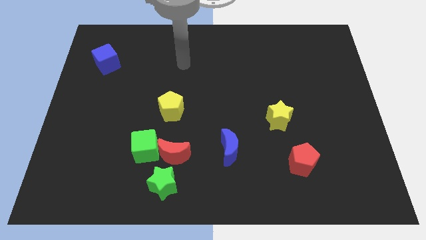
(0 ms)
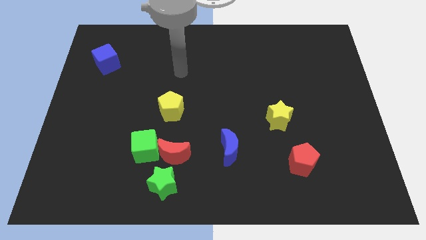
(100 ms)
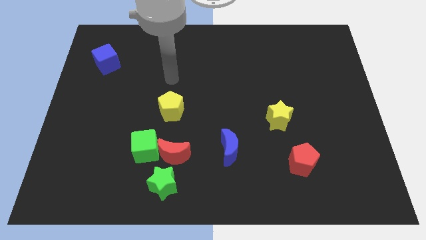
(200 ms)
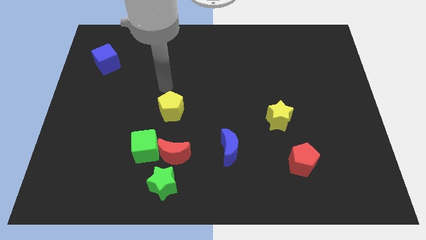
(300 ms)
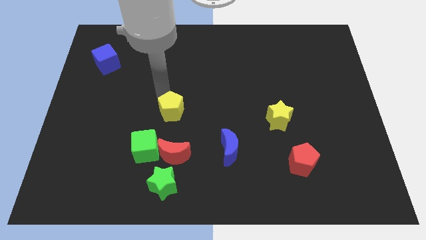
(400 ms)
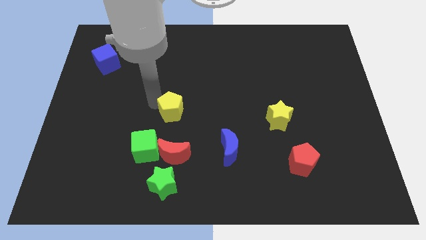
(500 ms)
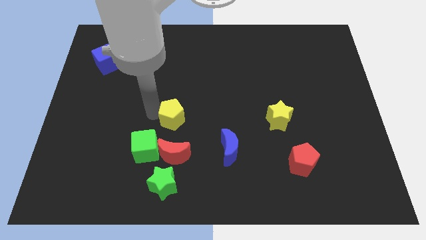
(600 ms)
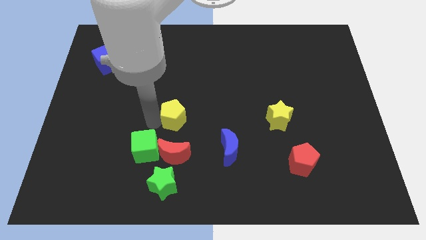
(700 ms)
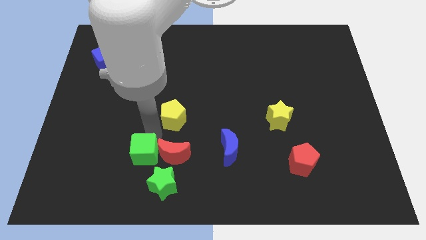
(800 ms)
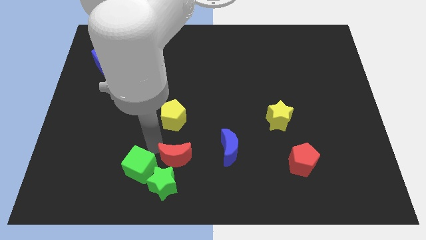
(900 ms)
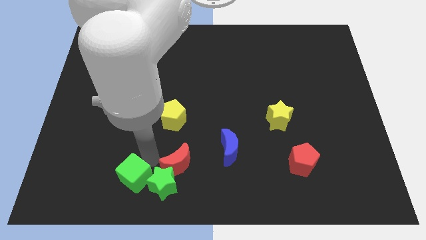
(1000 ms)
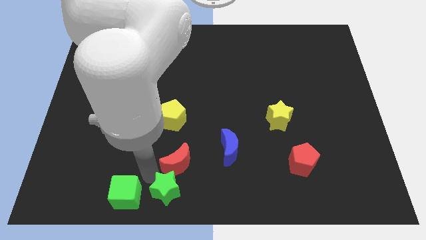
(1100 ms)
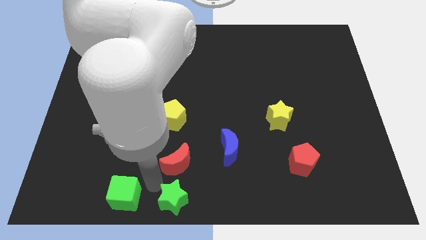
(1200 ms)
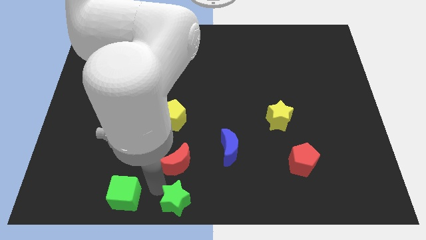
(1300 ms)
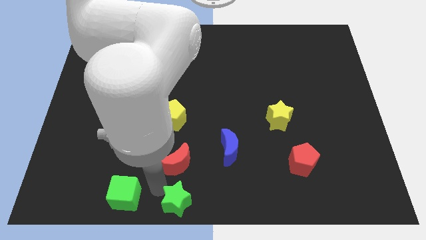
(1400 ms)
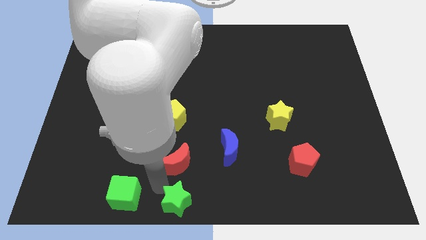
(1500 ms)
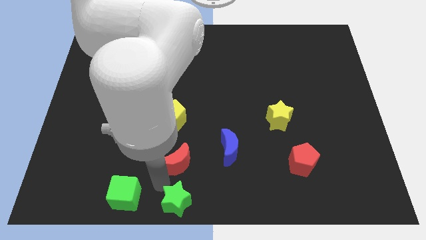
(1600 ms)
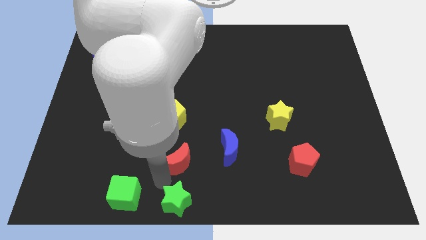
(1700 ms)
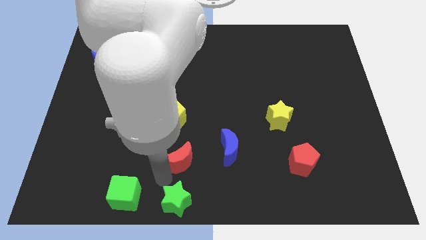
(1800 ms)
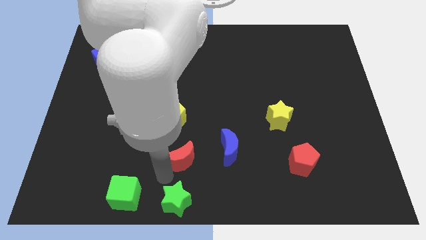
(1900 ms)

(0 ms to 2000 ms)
separate the red moon from the green cube and green star

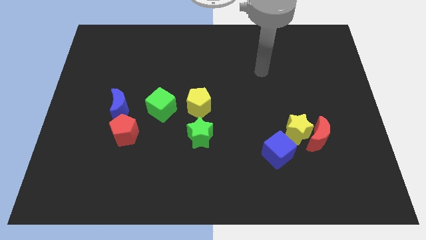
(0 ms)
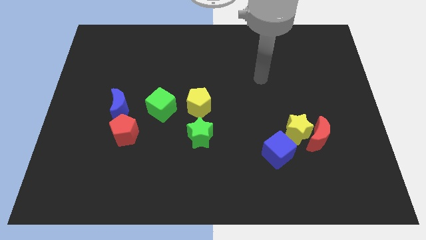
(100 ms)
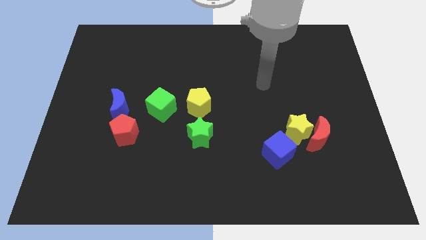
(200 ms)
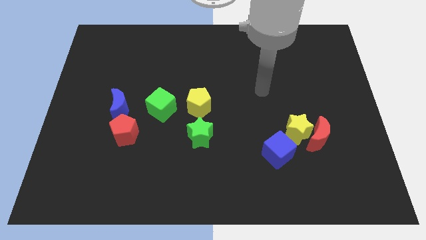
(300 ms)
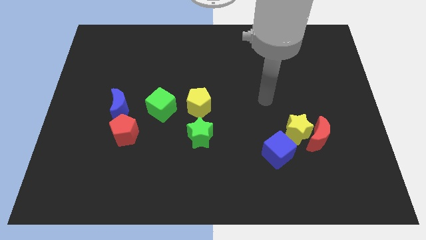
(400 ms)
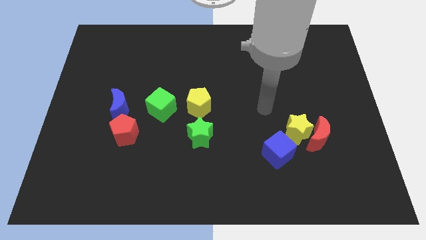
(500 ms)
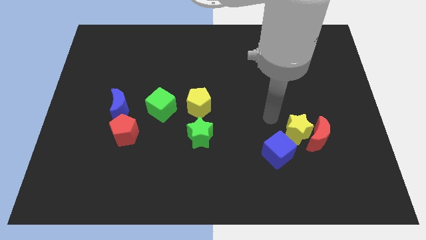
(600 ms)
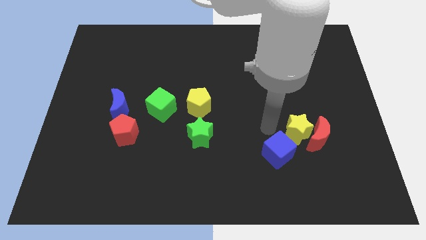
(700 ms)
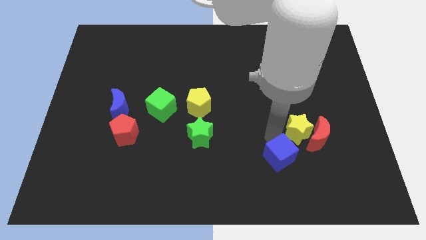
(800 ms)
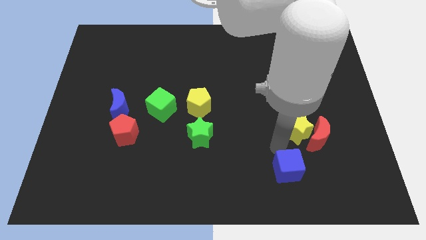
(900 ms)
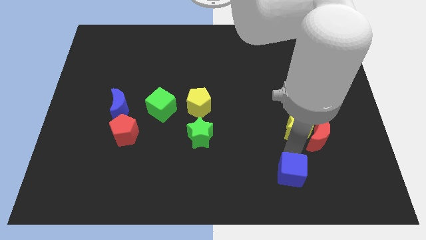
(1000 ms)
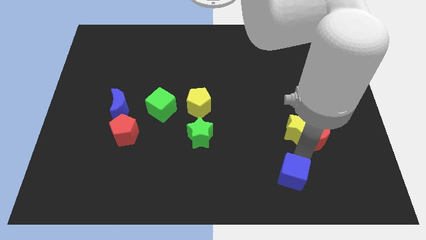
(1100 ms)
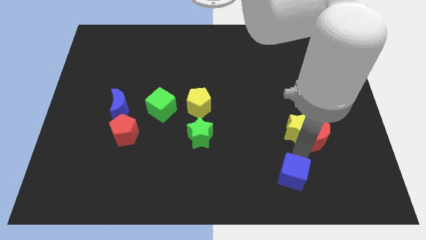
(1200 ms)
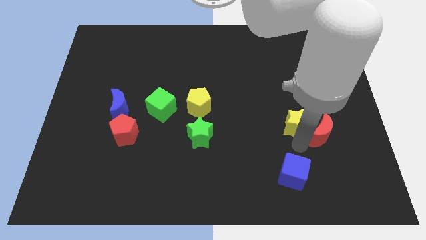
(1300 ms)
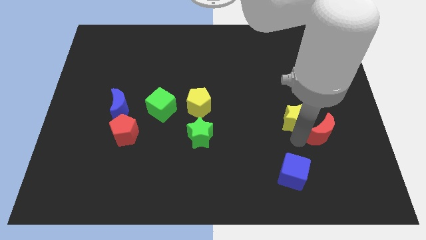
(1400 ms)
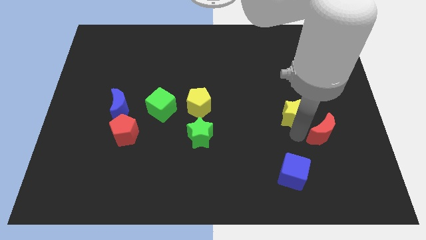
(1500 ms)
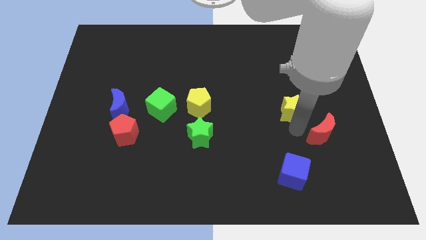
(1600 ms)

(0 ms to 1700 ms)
separate the yellow star from the red moon and blue cube

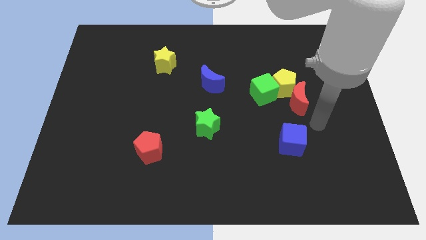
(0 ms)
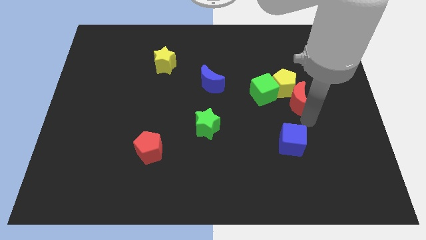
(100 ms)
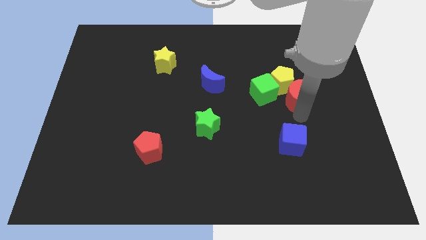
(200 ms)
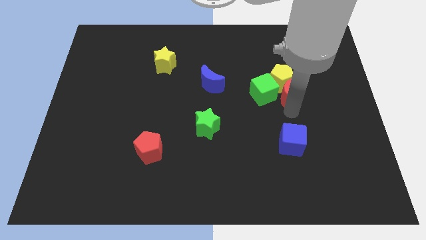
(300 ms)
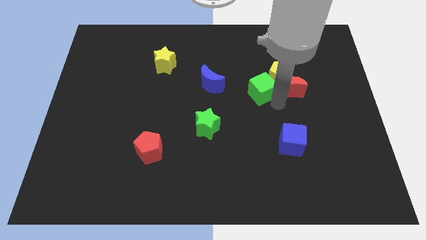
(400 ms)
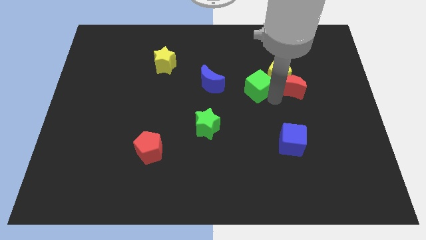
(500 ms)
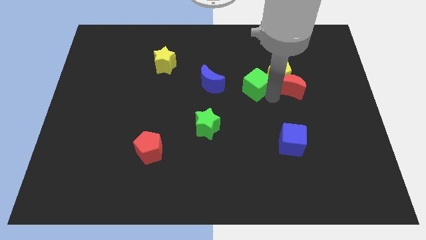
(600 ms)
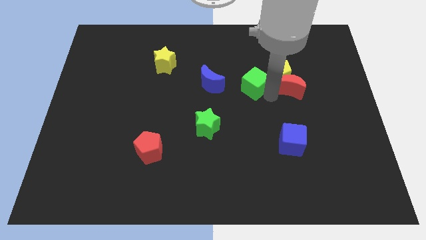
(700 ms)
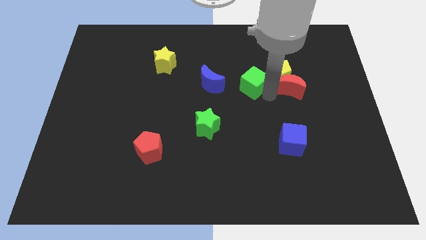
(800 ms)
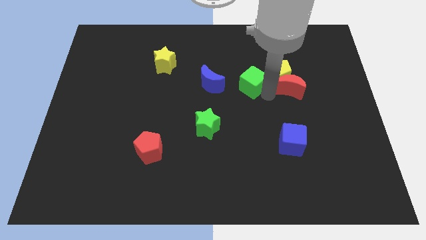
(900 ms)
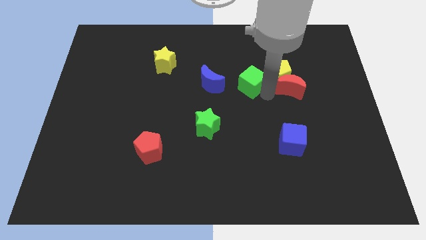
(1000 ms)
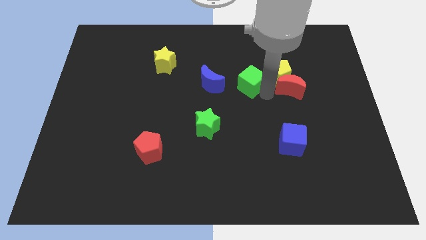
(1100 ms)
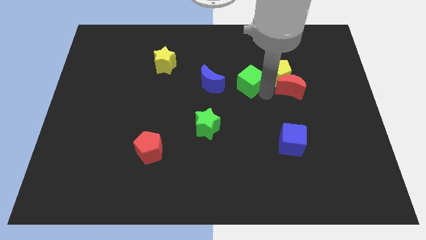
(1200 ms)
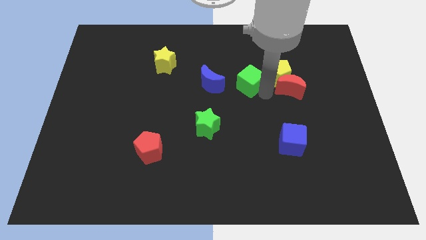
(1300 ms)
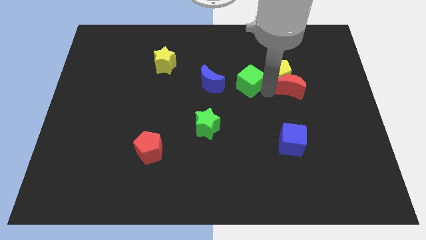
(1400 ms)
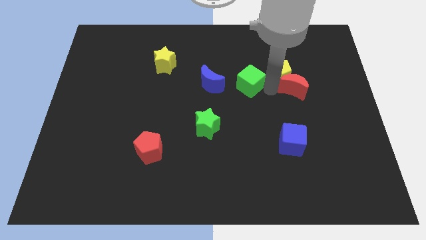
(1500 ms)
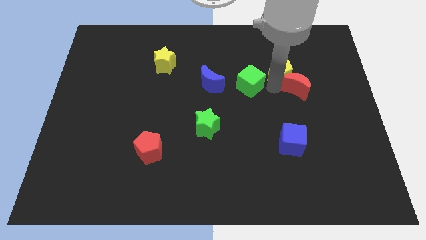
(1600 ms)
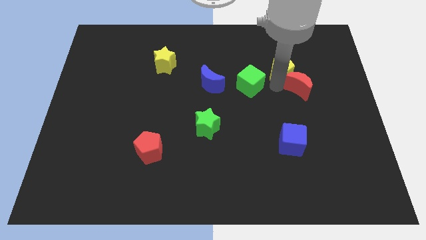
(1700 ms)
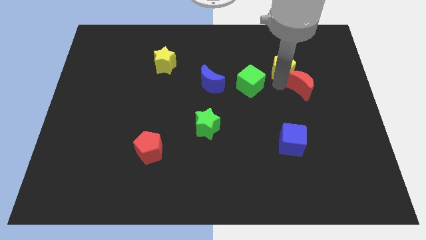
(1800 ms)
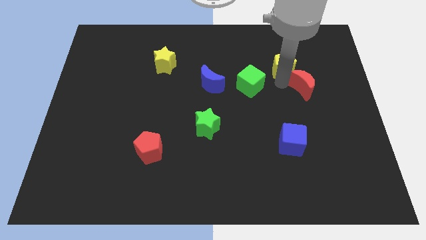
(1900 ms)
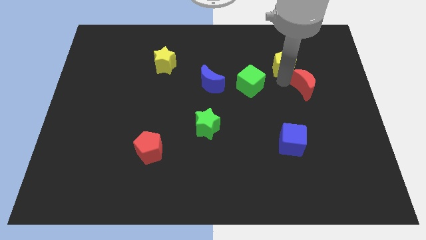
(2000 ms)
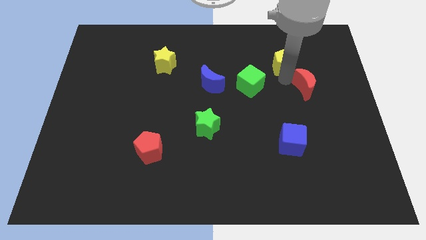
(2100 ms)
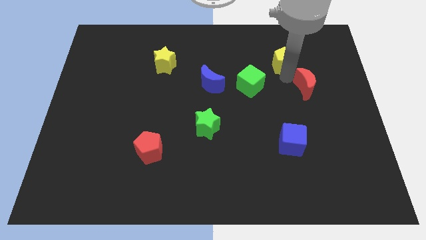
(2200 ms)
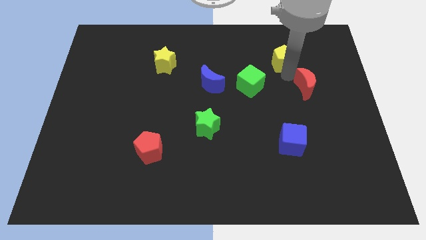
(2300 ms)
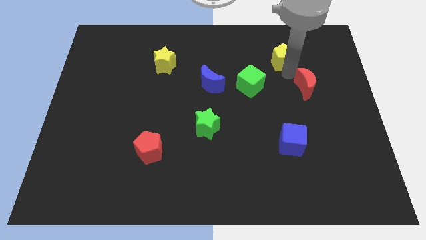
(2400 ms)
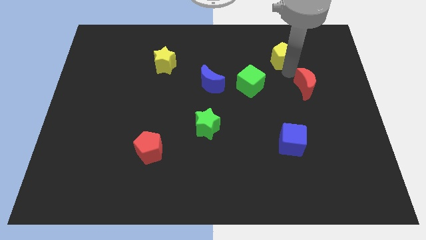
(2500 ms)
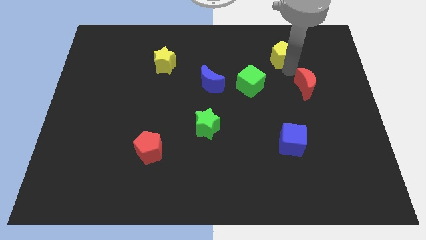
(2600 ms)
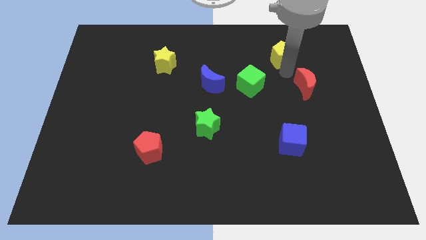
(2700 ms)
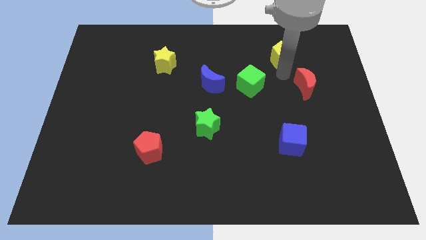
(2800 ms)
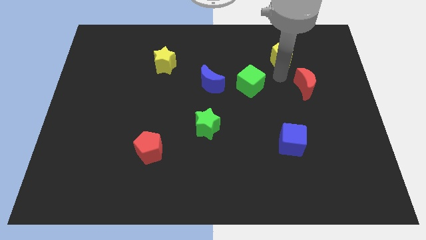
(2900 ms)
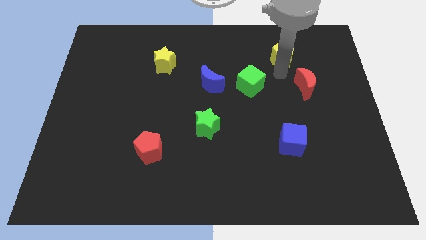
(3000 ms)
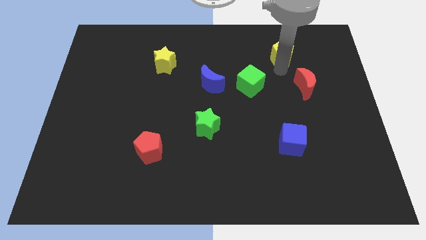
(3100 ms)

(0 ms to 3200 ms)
pull the yellow pentagon apart from the green cube and red moon

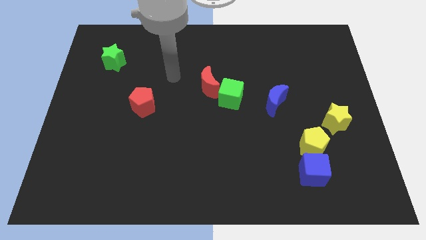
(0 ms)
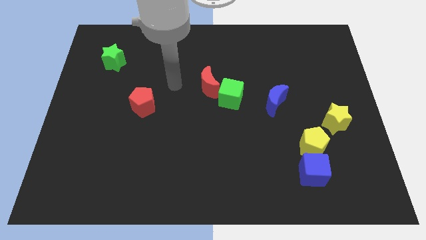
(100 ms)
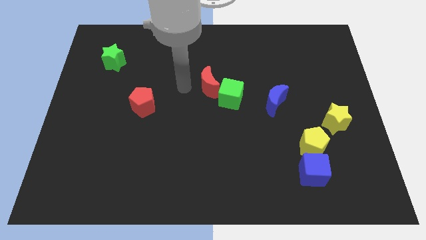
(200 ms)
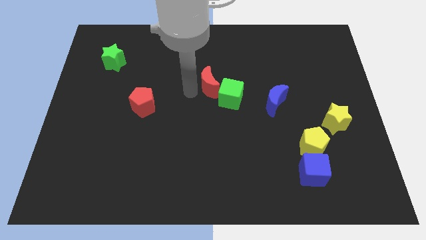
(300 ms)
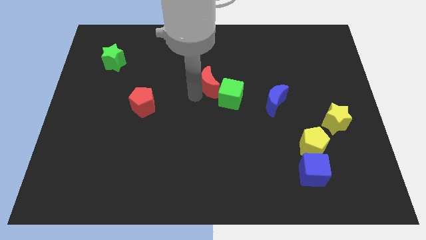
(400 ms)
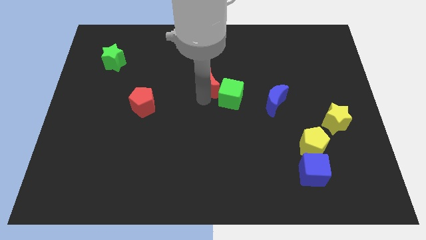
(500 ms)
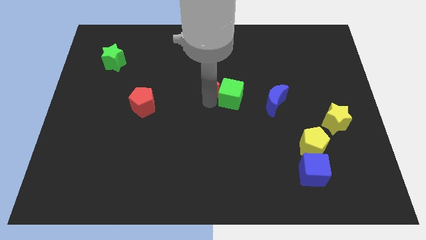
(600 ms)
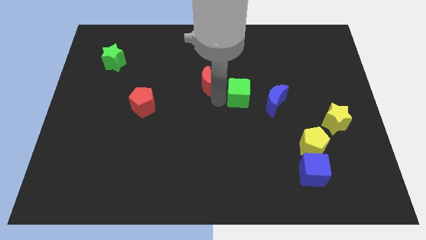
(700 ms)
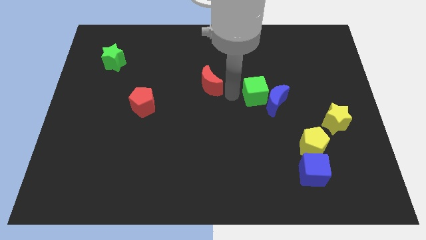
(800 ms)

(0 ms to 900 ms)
separate the red moon from the green cube

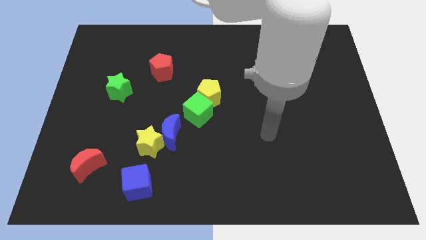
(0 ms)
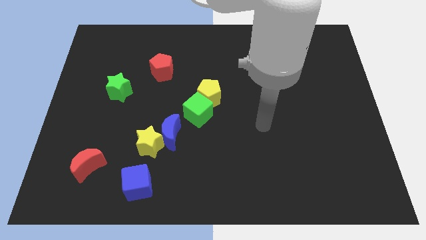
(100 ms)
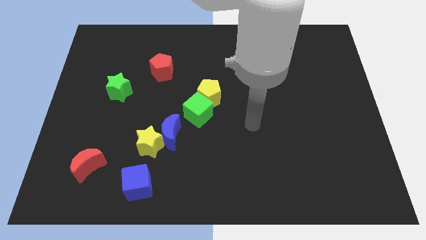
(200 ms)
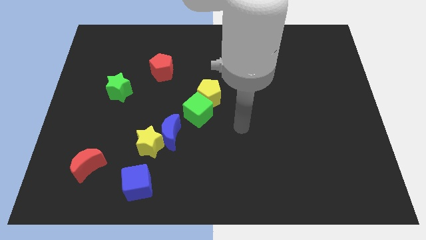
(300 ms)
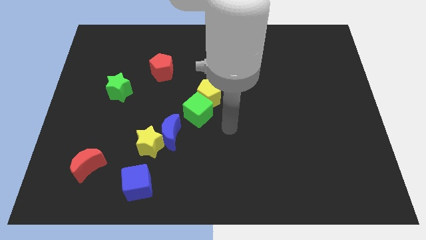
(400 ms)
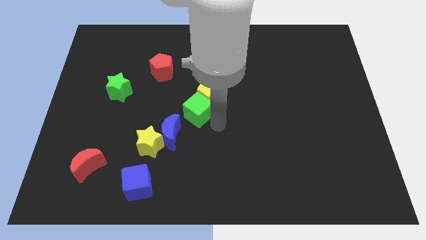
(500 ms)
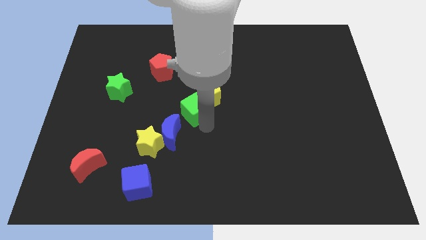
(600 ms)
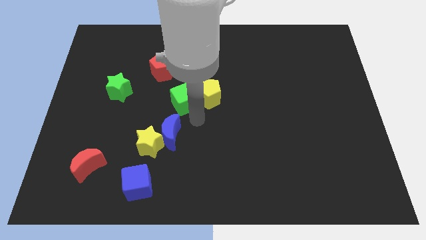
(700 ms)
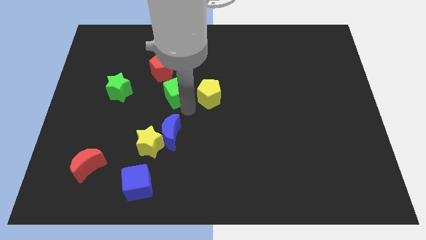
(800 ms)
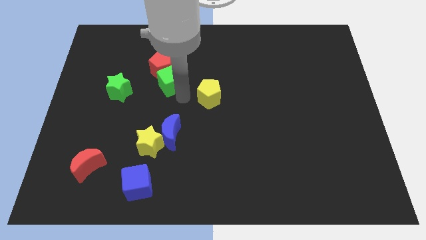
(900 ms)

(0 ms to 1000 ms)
pull the yellow pentagon apart from the green cube

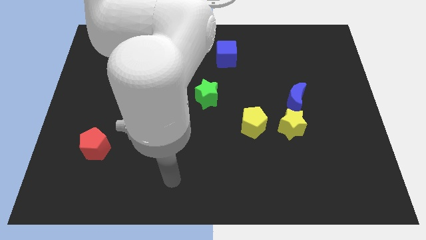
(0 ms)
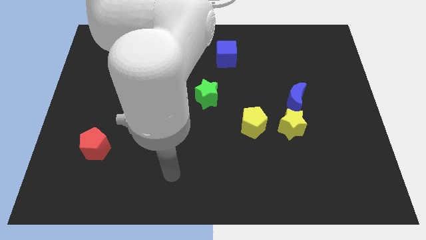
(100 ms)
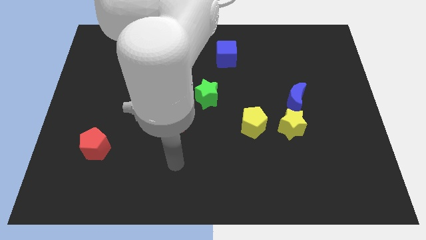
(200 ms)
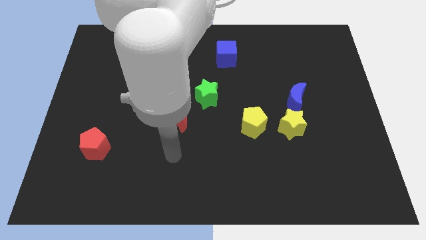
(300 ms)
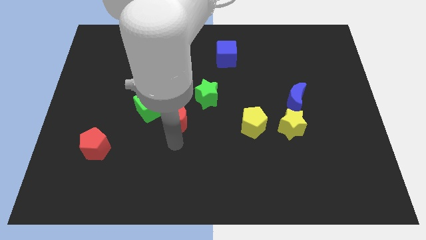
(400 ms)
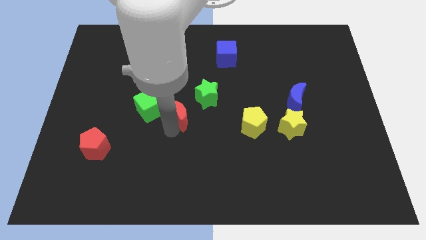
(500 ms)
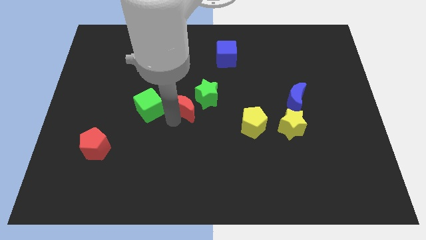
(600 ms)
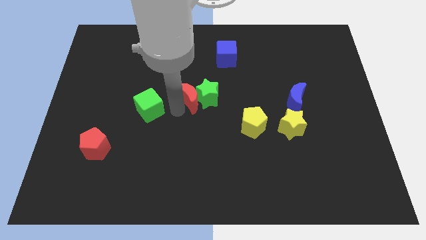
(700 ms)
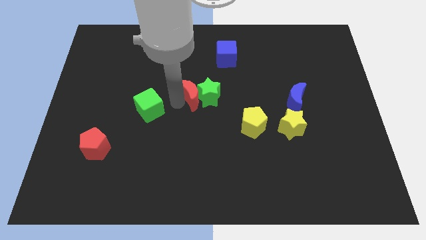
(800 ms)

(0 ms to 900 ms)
separate the green cube from the red moon
